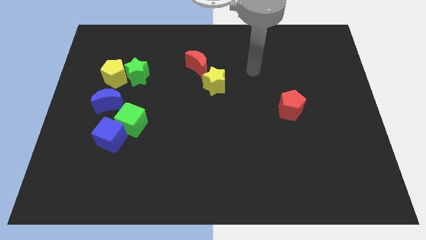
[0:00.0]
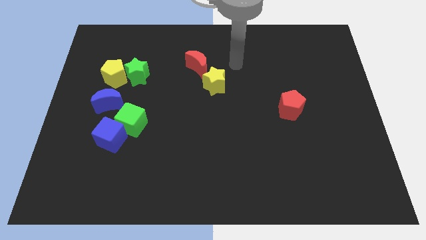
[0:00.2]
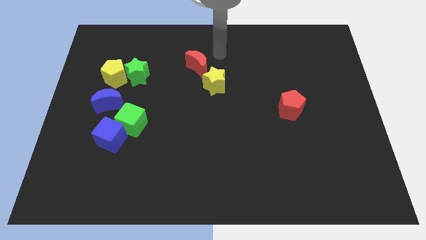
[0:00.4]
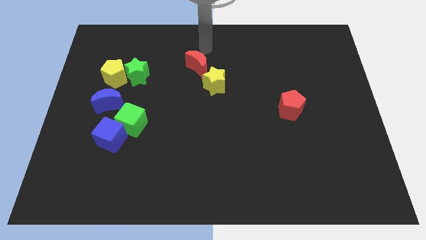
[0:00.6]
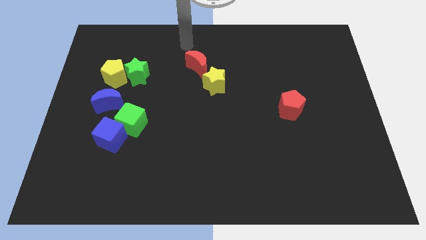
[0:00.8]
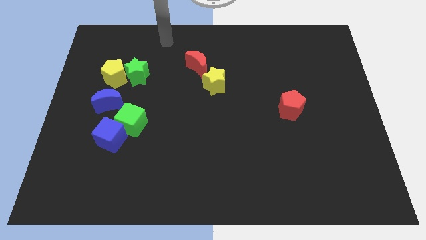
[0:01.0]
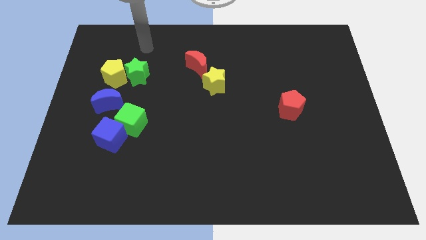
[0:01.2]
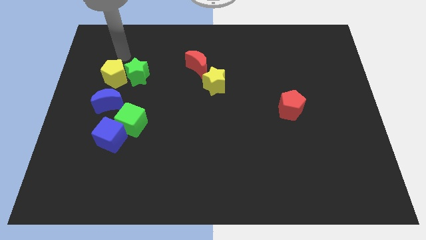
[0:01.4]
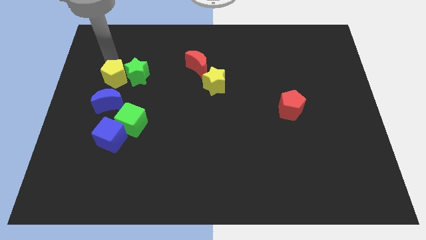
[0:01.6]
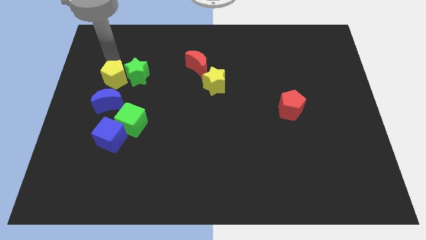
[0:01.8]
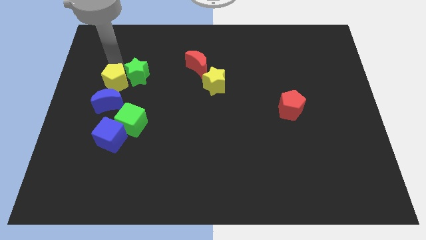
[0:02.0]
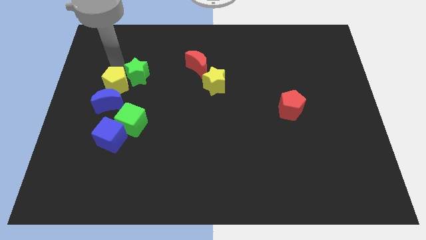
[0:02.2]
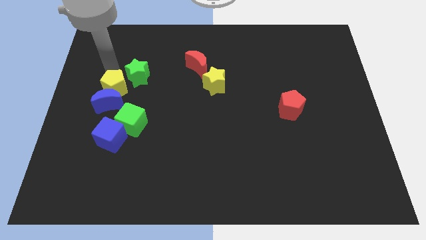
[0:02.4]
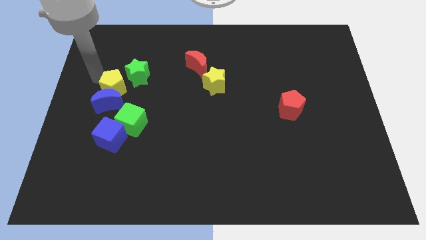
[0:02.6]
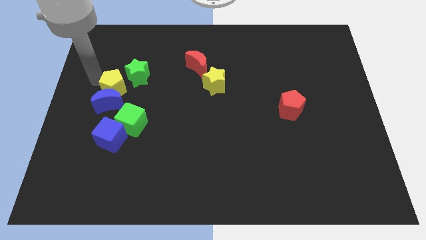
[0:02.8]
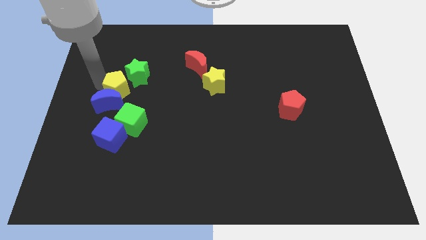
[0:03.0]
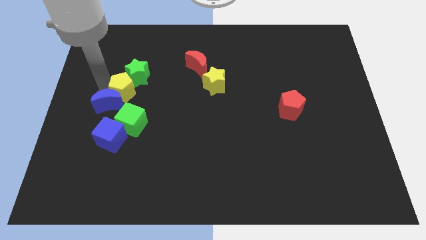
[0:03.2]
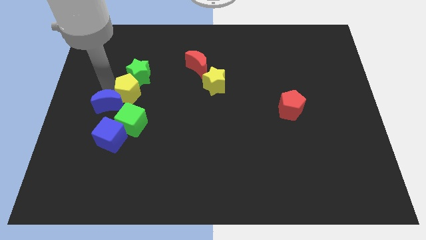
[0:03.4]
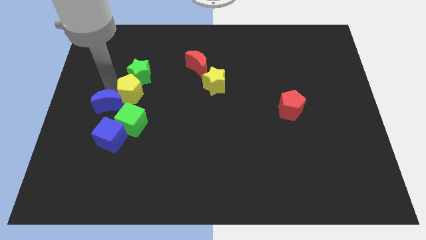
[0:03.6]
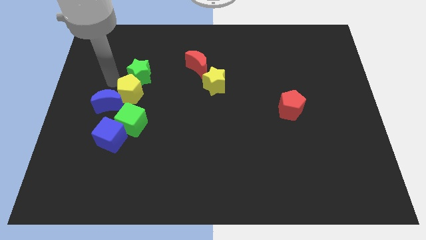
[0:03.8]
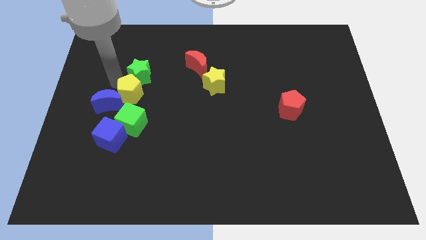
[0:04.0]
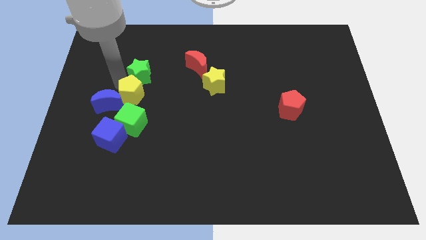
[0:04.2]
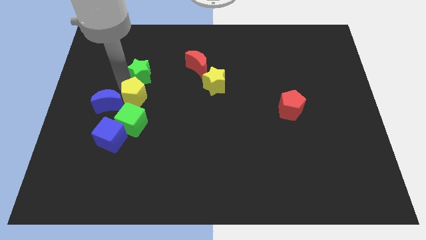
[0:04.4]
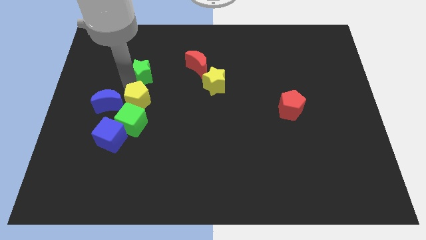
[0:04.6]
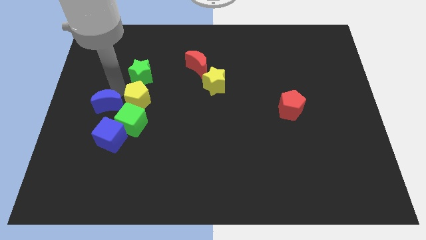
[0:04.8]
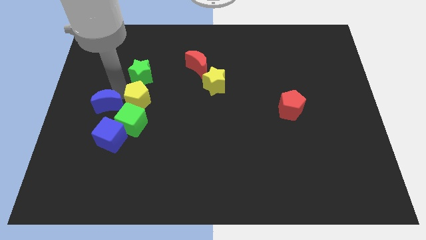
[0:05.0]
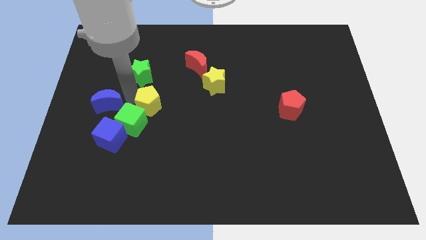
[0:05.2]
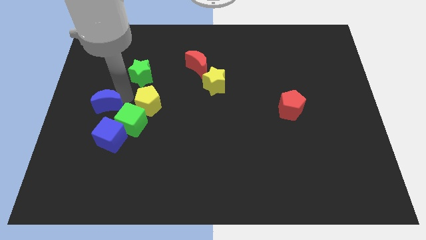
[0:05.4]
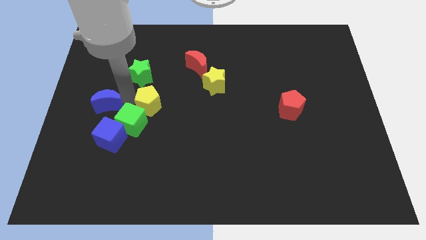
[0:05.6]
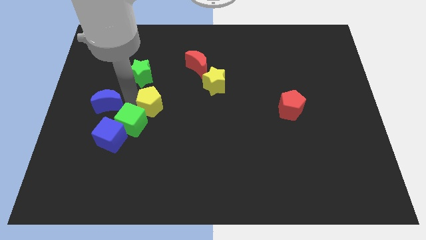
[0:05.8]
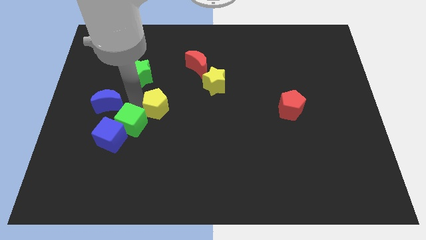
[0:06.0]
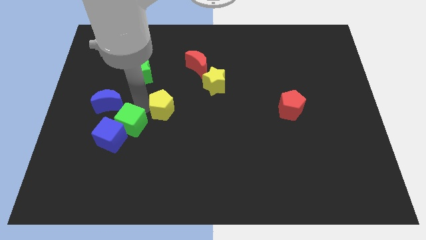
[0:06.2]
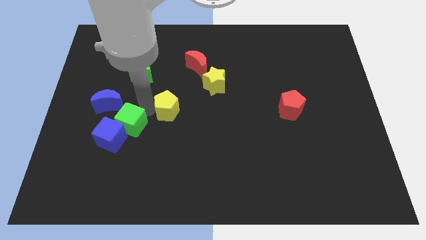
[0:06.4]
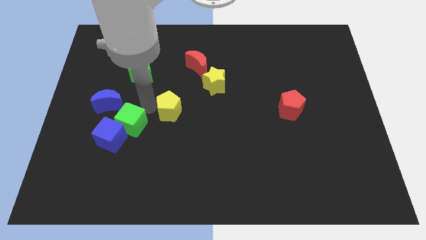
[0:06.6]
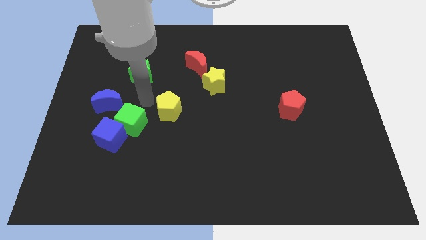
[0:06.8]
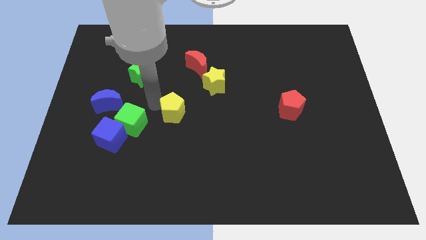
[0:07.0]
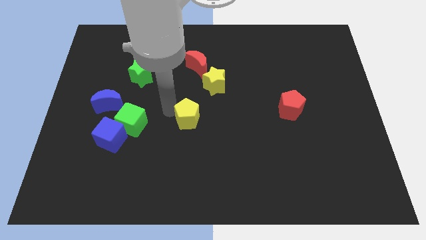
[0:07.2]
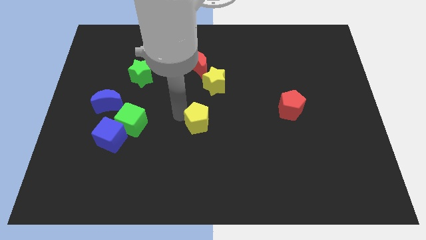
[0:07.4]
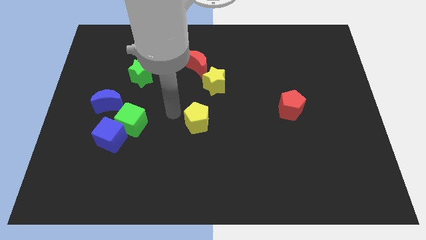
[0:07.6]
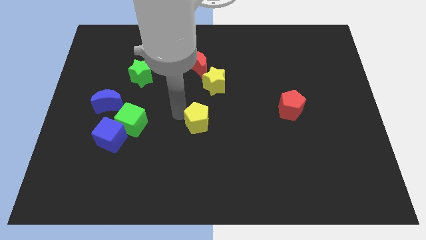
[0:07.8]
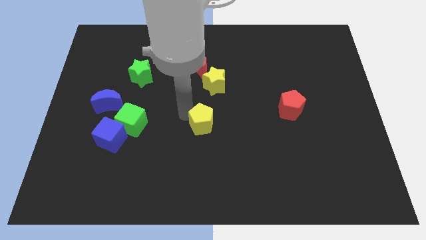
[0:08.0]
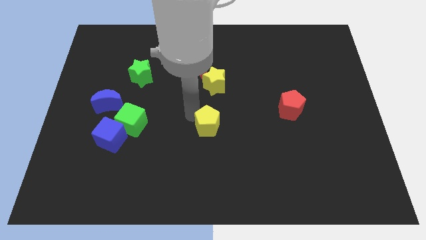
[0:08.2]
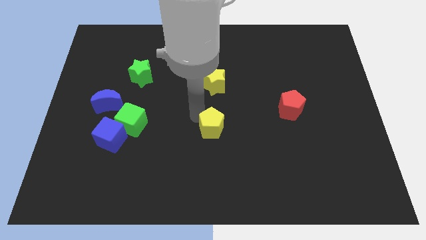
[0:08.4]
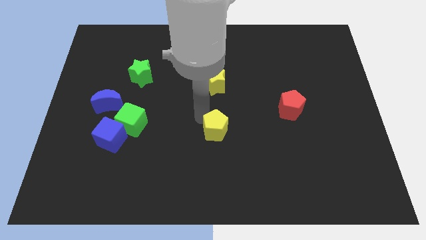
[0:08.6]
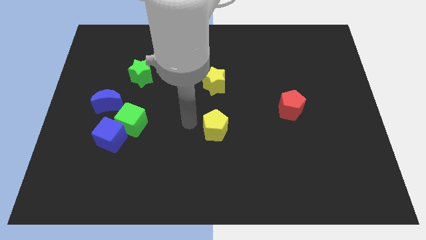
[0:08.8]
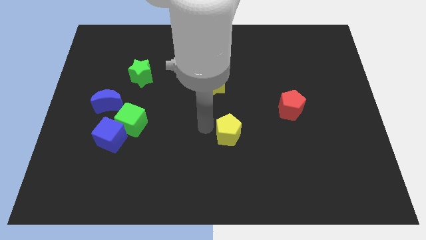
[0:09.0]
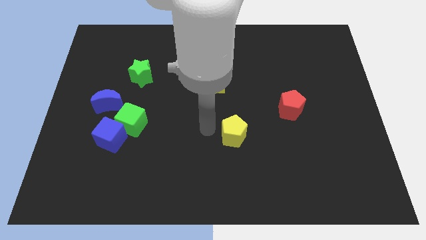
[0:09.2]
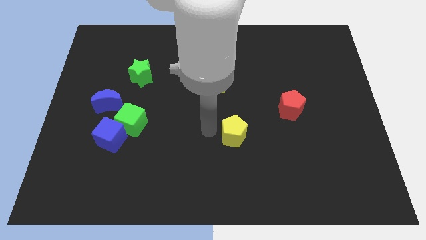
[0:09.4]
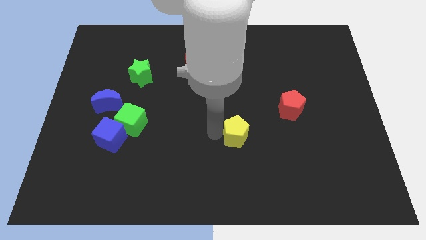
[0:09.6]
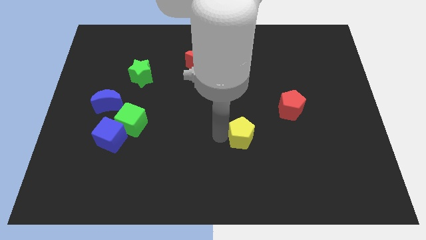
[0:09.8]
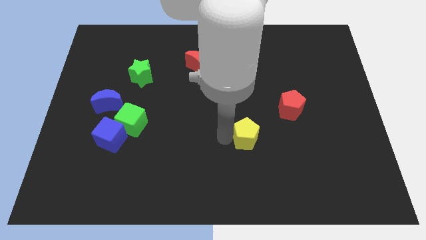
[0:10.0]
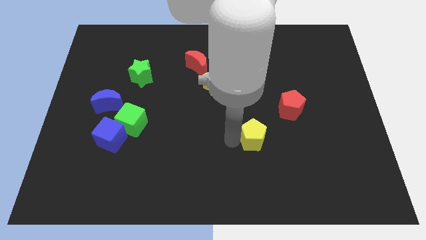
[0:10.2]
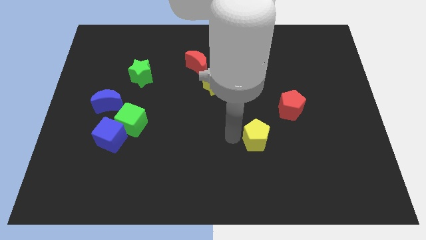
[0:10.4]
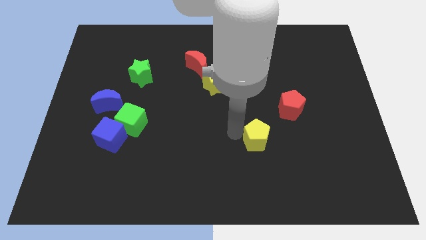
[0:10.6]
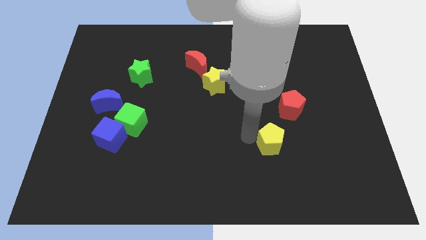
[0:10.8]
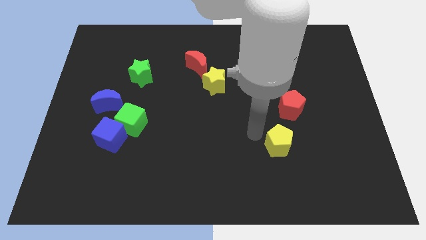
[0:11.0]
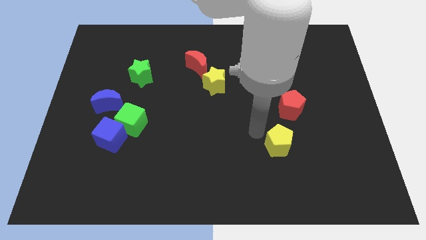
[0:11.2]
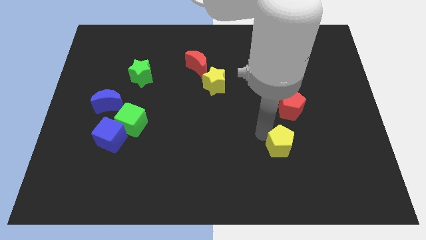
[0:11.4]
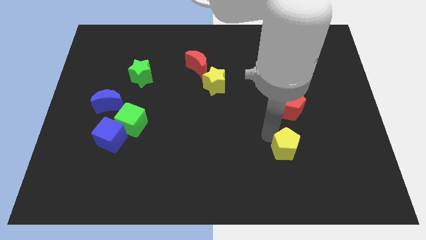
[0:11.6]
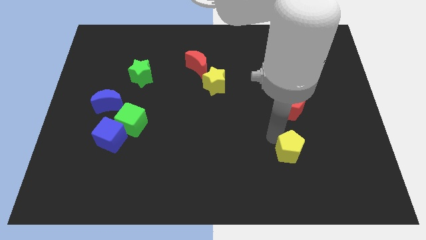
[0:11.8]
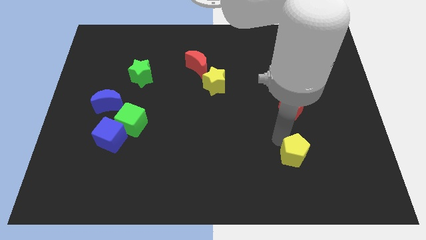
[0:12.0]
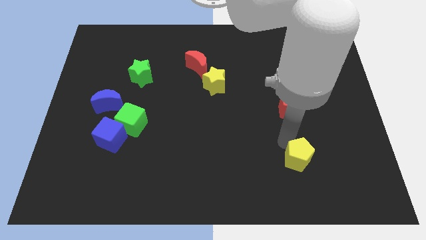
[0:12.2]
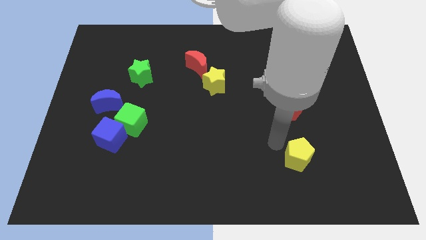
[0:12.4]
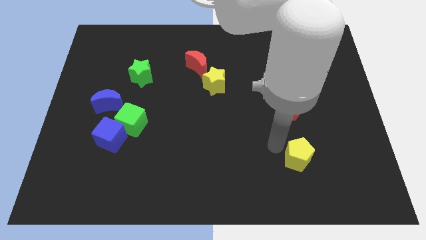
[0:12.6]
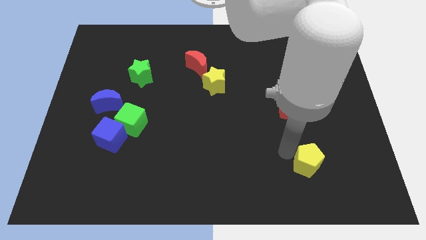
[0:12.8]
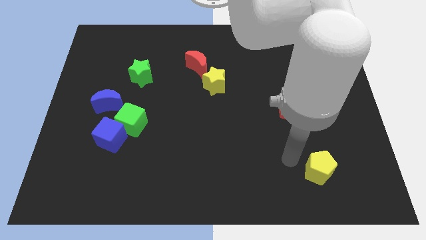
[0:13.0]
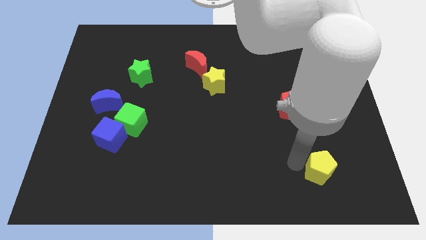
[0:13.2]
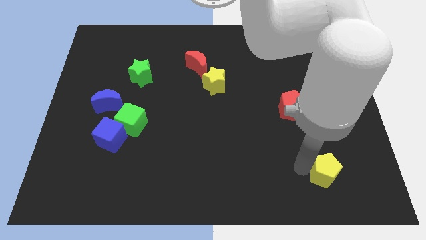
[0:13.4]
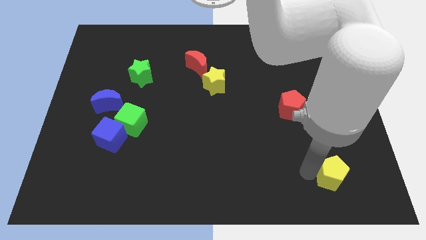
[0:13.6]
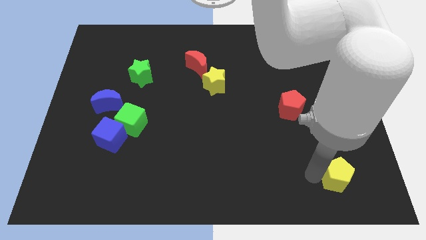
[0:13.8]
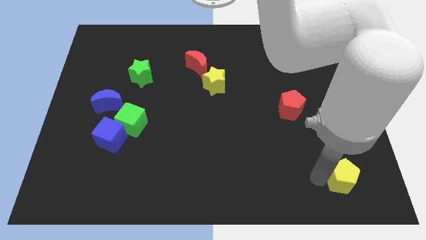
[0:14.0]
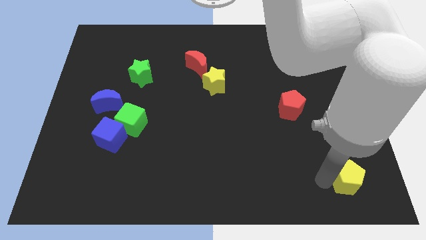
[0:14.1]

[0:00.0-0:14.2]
push the yellow pentagon to the bottom right corner
